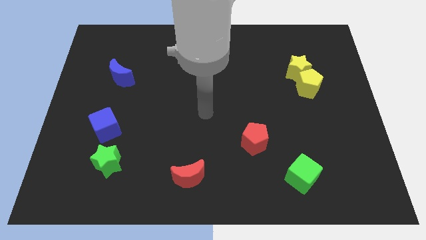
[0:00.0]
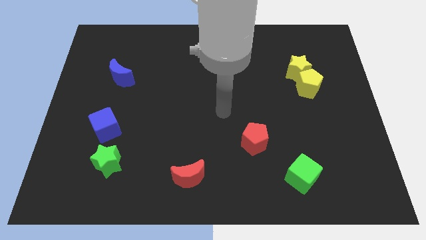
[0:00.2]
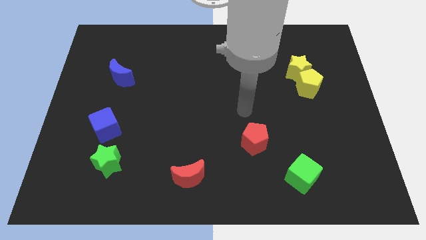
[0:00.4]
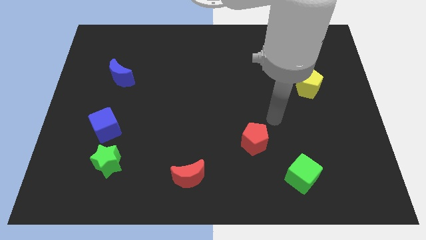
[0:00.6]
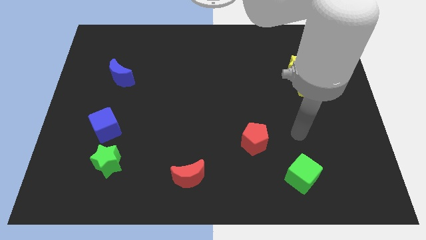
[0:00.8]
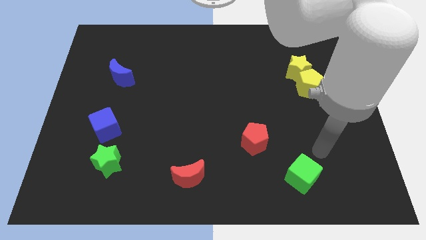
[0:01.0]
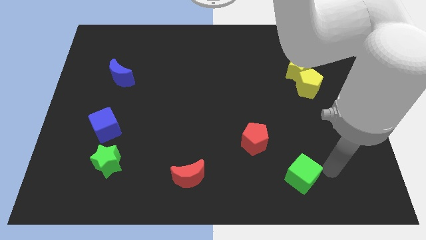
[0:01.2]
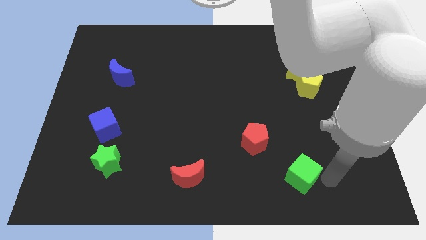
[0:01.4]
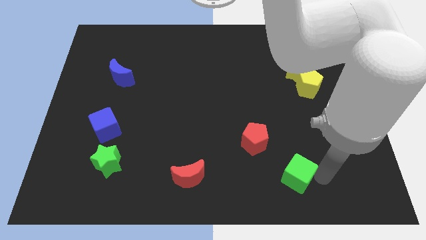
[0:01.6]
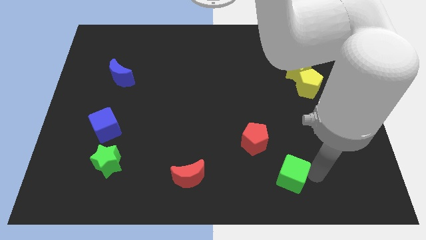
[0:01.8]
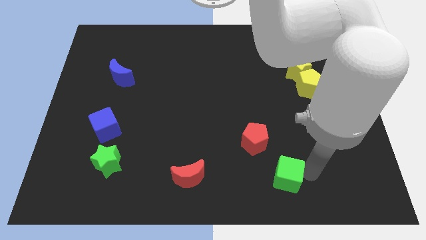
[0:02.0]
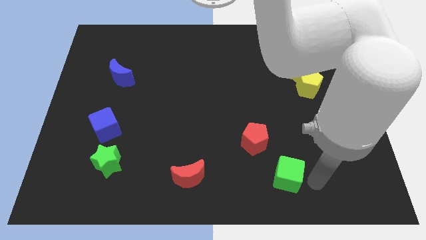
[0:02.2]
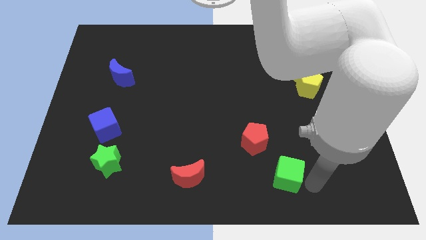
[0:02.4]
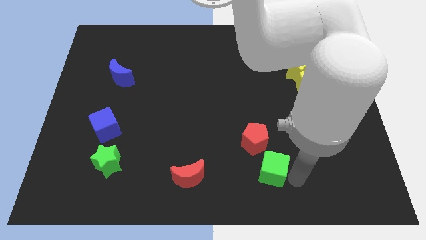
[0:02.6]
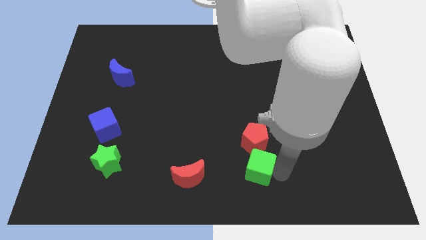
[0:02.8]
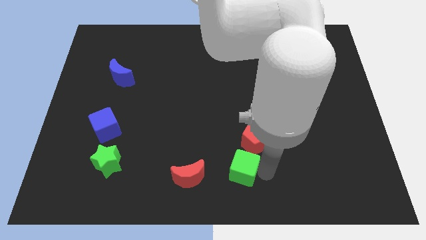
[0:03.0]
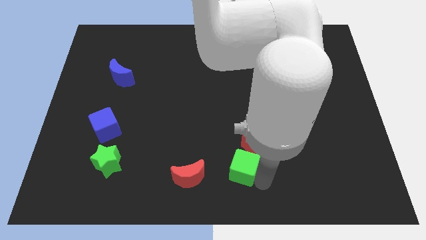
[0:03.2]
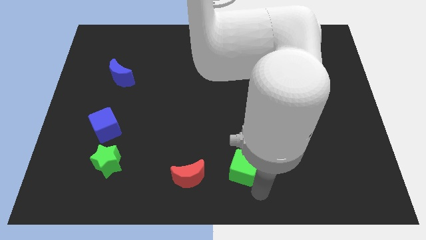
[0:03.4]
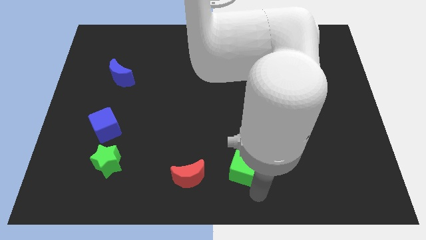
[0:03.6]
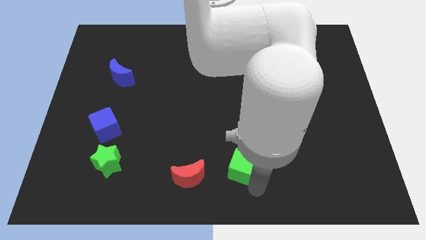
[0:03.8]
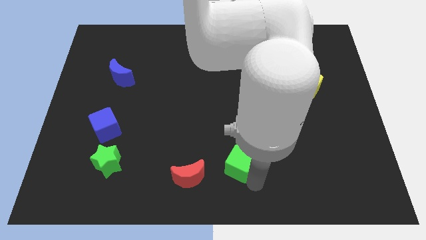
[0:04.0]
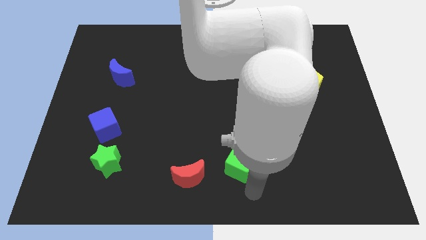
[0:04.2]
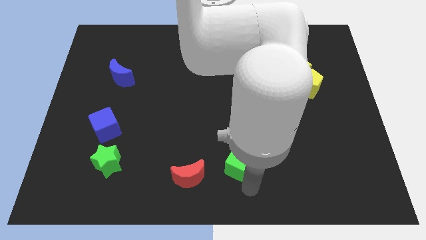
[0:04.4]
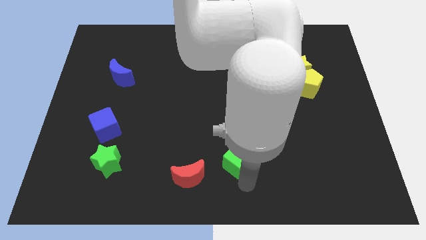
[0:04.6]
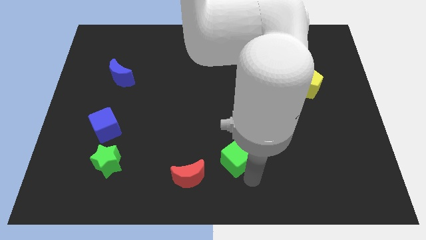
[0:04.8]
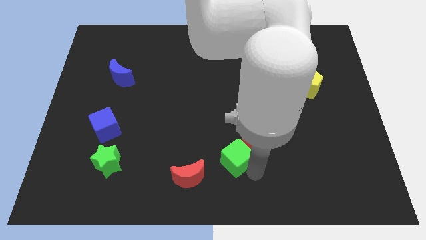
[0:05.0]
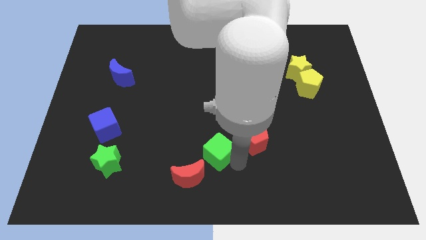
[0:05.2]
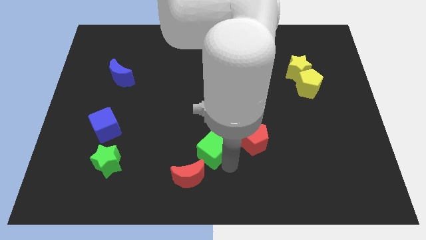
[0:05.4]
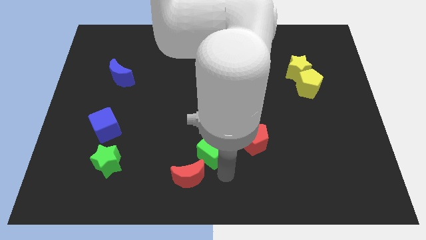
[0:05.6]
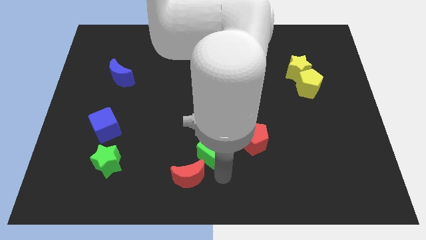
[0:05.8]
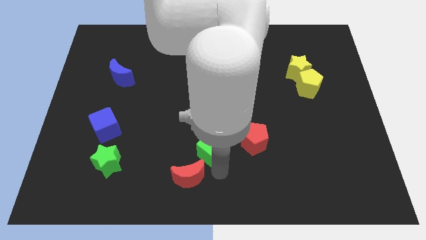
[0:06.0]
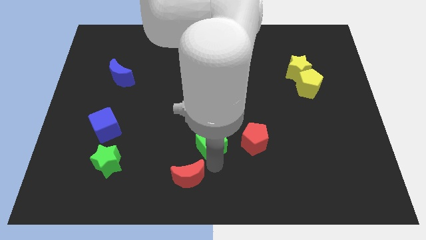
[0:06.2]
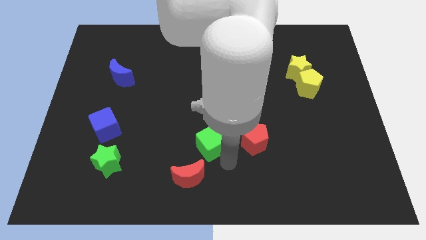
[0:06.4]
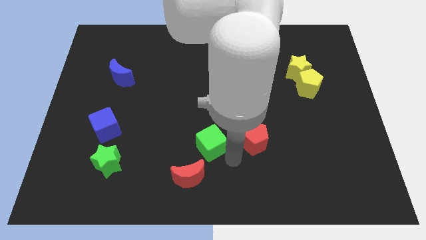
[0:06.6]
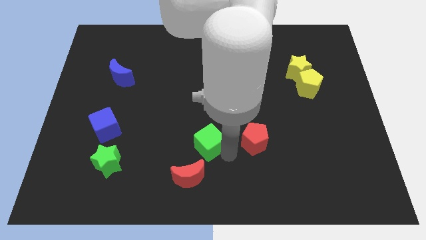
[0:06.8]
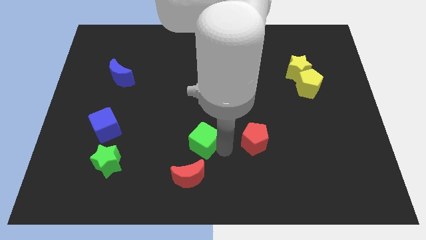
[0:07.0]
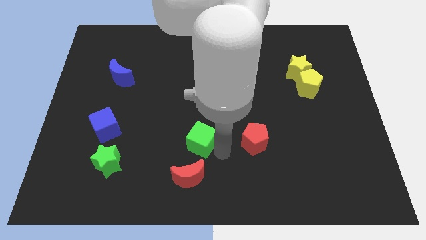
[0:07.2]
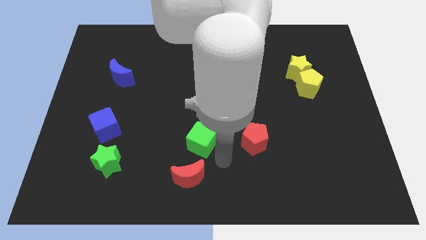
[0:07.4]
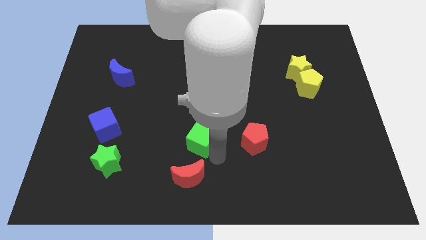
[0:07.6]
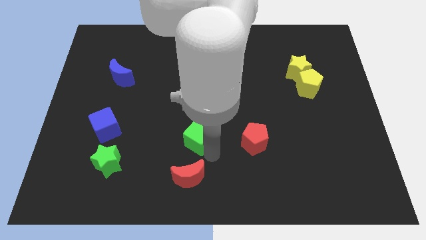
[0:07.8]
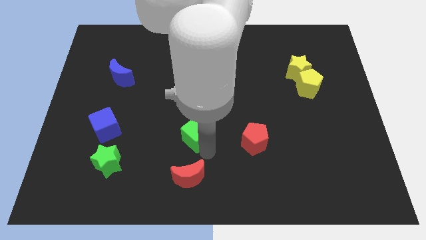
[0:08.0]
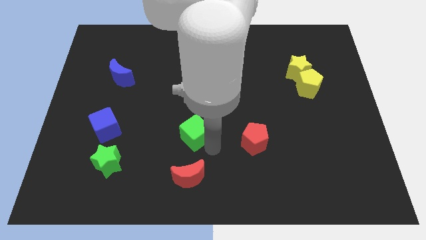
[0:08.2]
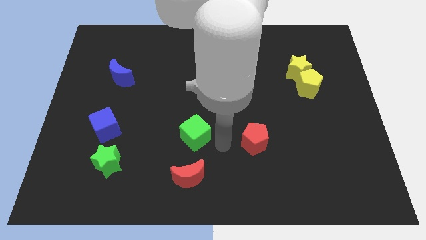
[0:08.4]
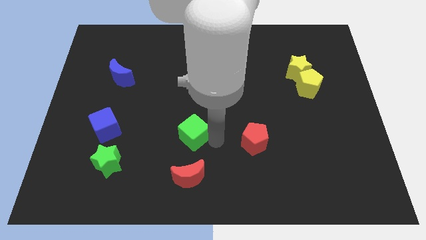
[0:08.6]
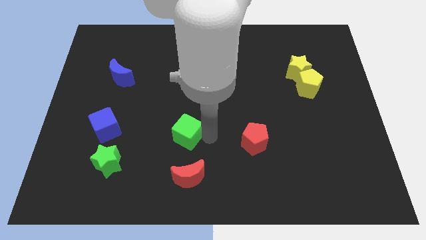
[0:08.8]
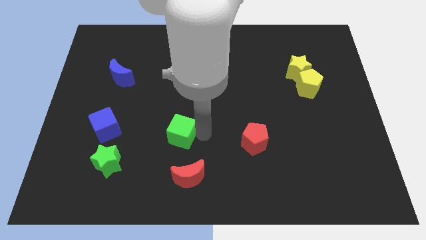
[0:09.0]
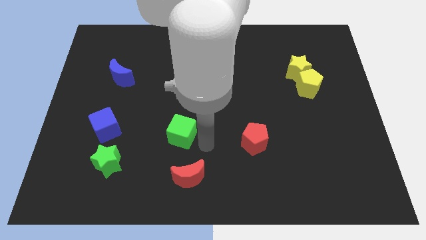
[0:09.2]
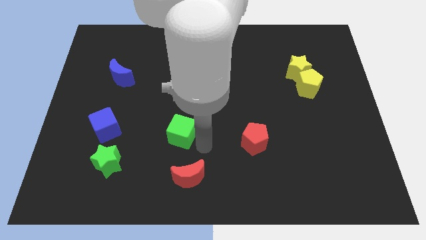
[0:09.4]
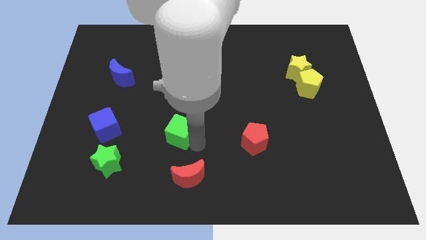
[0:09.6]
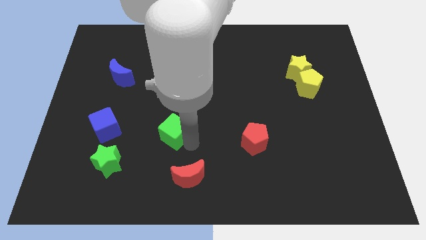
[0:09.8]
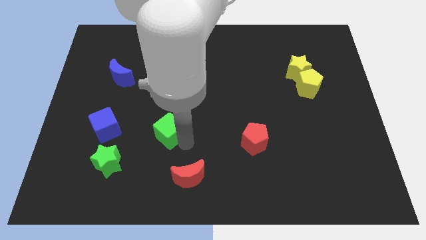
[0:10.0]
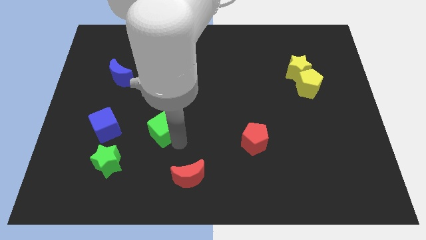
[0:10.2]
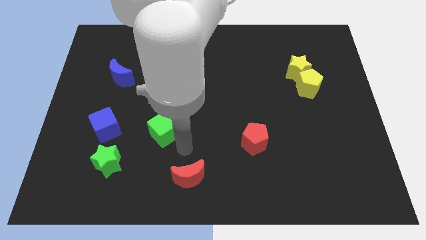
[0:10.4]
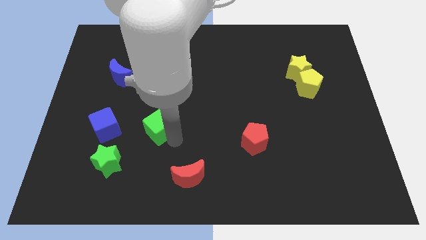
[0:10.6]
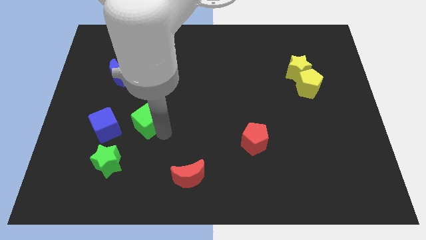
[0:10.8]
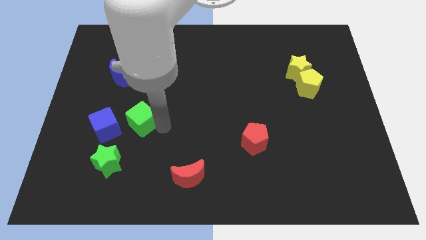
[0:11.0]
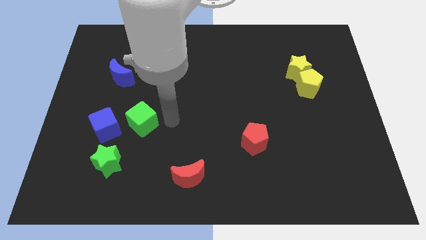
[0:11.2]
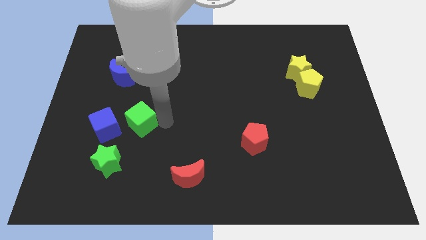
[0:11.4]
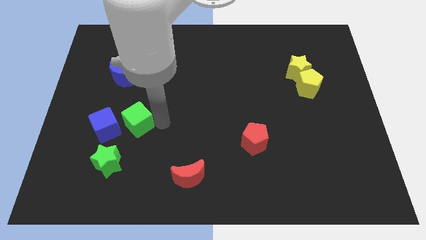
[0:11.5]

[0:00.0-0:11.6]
put the green cube to the top of the green star

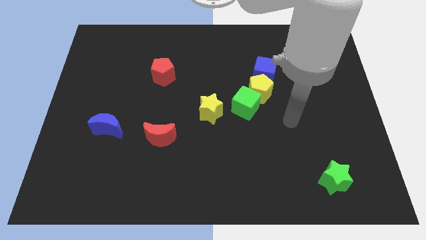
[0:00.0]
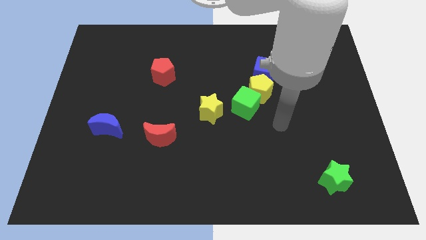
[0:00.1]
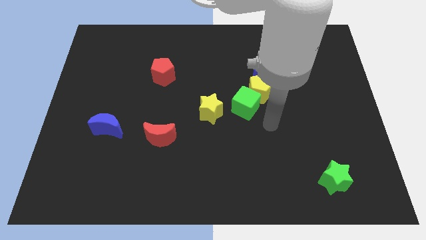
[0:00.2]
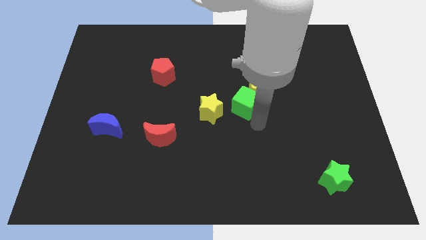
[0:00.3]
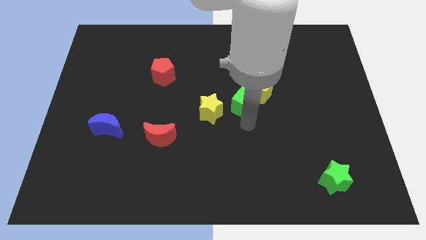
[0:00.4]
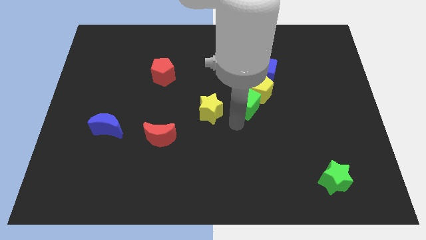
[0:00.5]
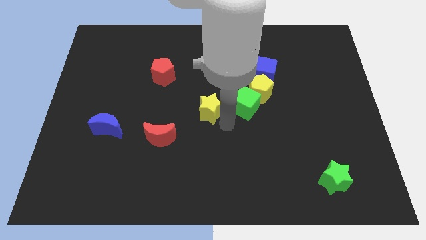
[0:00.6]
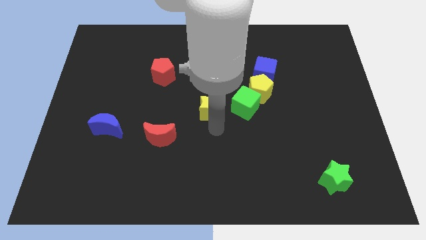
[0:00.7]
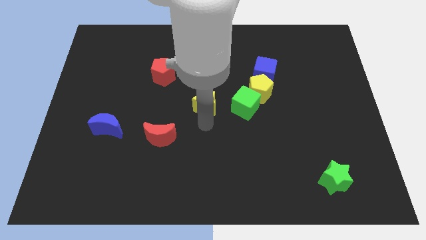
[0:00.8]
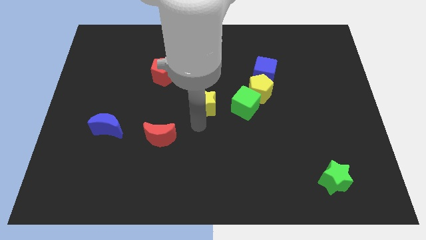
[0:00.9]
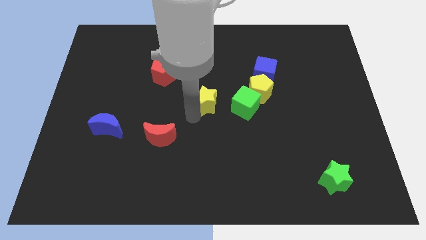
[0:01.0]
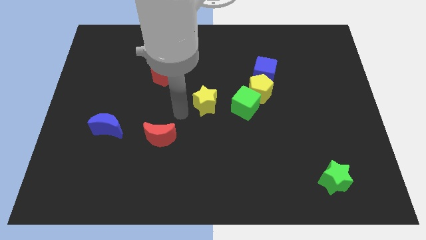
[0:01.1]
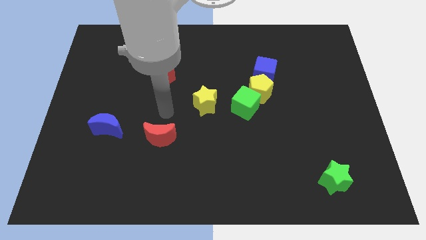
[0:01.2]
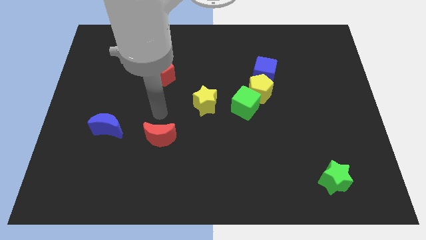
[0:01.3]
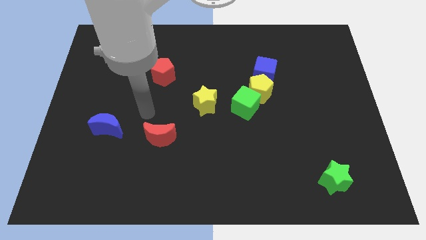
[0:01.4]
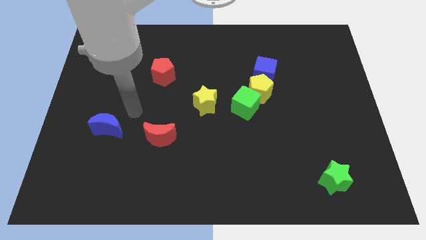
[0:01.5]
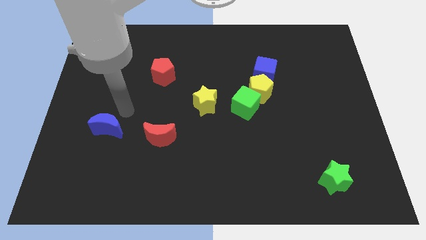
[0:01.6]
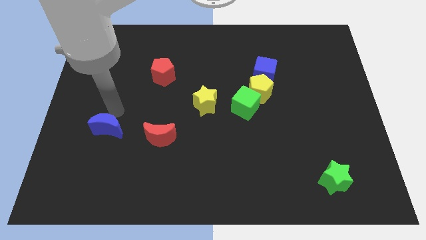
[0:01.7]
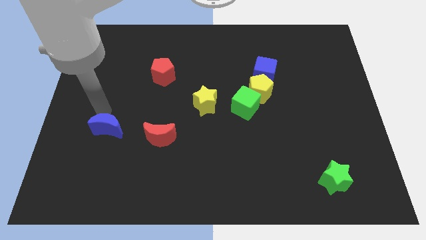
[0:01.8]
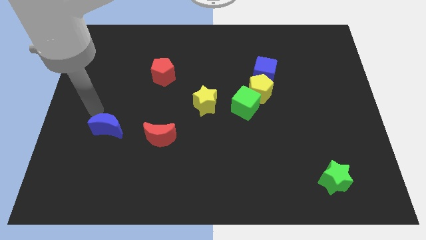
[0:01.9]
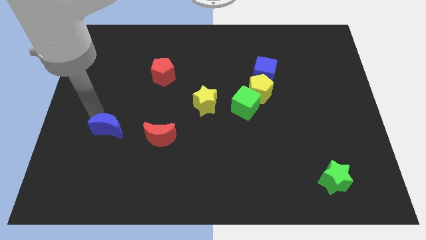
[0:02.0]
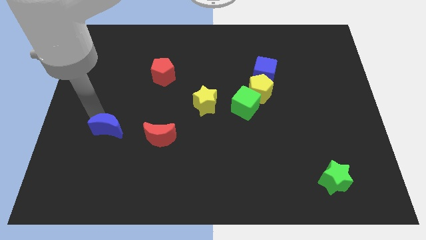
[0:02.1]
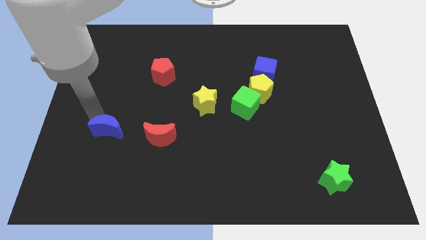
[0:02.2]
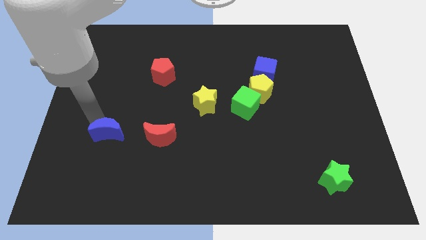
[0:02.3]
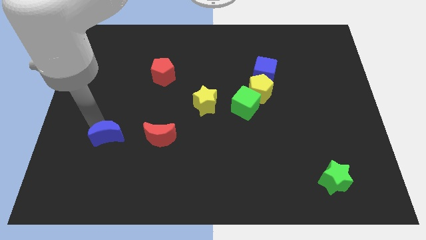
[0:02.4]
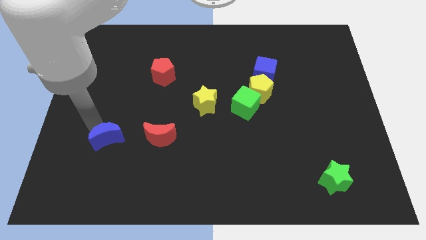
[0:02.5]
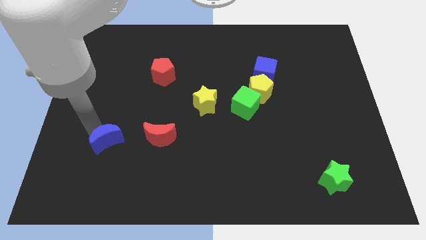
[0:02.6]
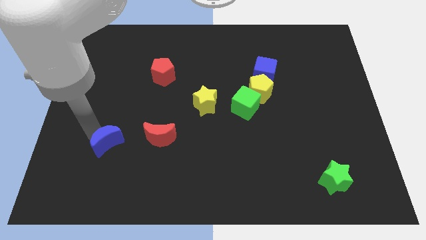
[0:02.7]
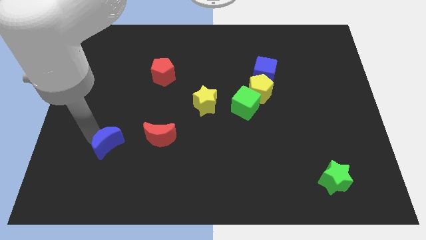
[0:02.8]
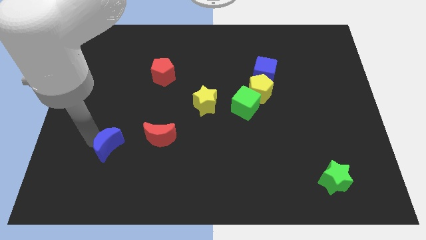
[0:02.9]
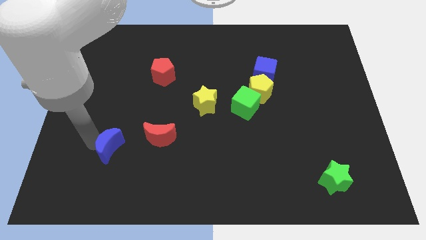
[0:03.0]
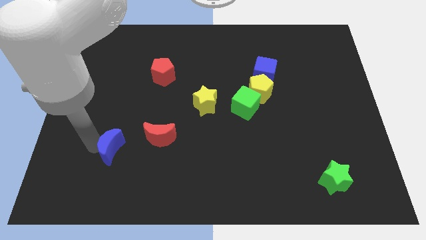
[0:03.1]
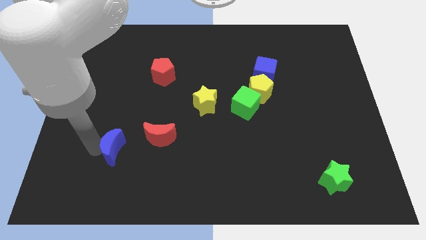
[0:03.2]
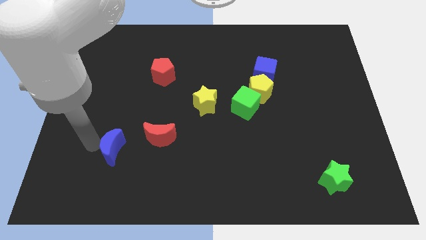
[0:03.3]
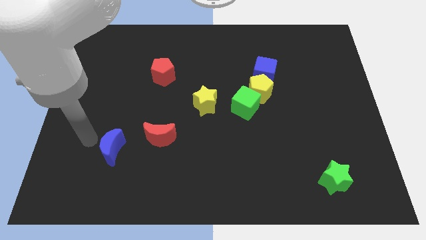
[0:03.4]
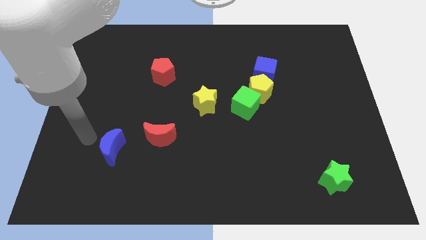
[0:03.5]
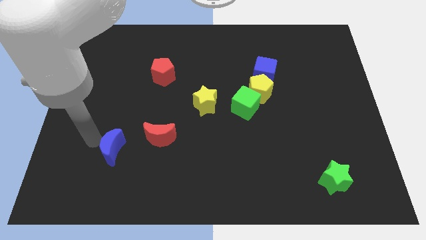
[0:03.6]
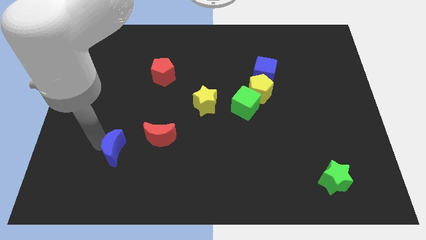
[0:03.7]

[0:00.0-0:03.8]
push the blue moon to the bottom left side of the red moon
